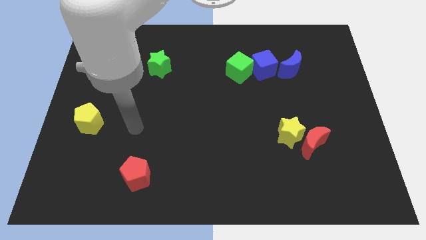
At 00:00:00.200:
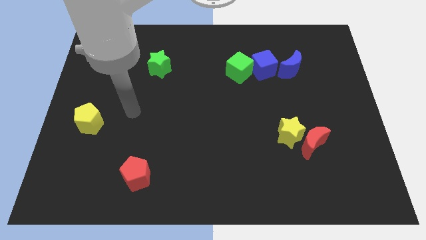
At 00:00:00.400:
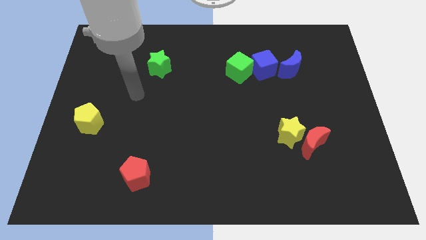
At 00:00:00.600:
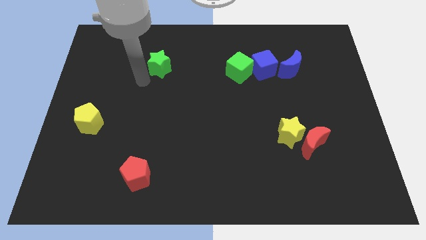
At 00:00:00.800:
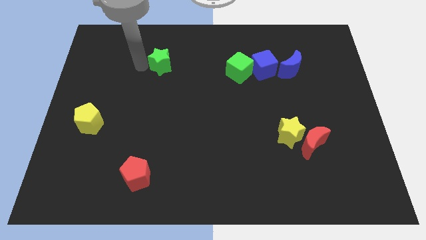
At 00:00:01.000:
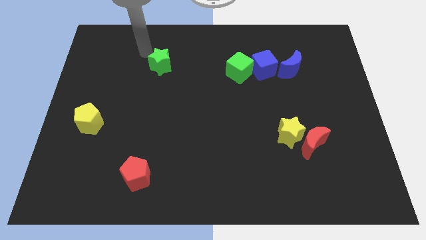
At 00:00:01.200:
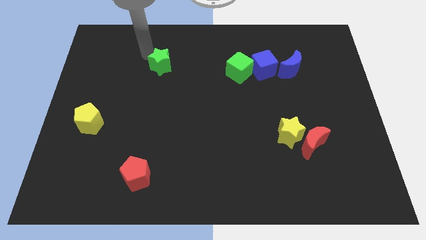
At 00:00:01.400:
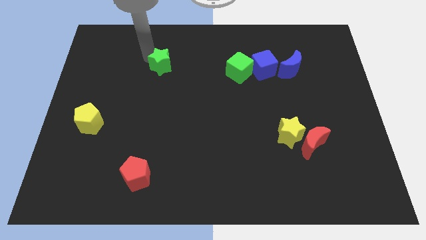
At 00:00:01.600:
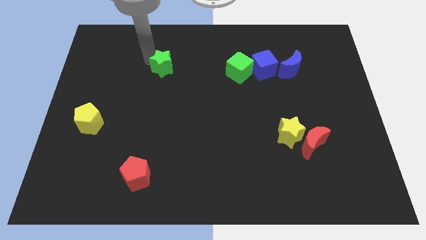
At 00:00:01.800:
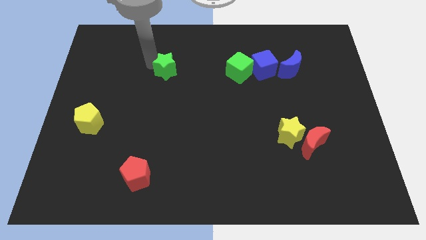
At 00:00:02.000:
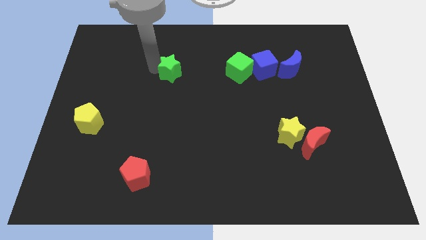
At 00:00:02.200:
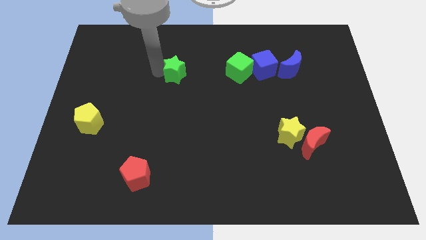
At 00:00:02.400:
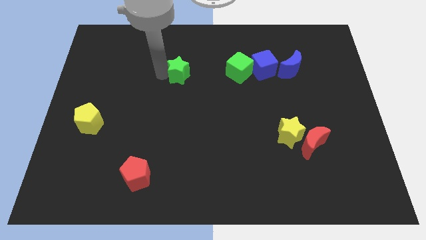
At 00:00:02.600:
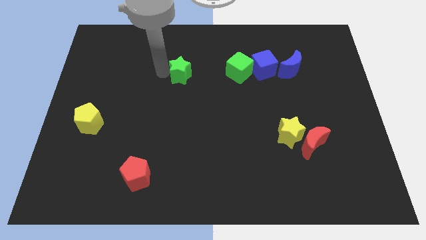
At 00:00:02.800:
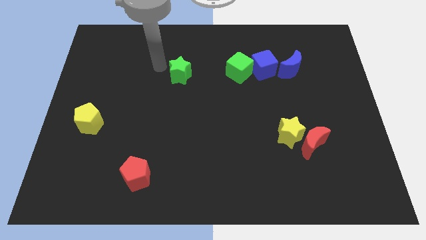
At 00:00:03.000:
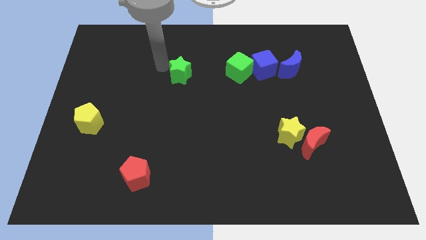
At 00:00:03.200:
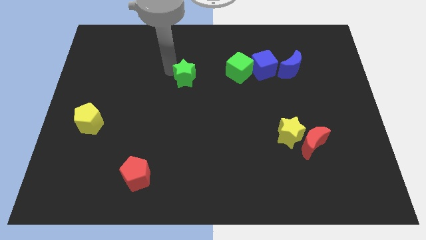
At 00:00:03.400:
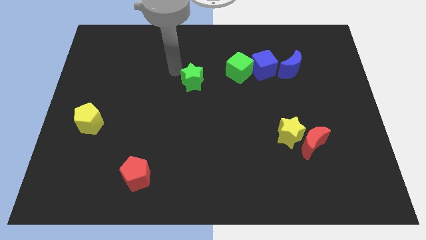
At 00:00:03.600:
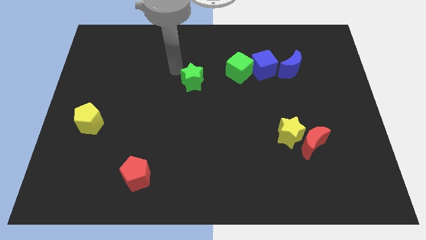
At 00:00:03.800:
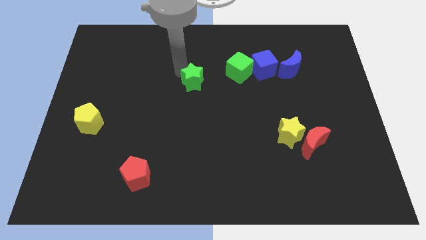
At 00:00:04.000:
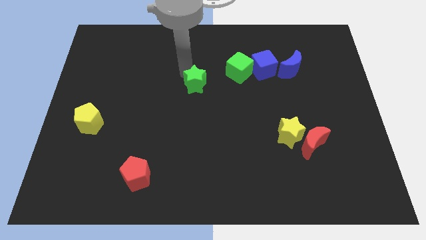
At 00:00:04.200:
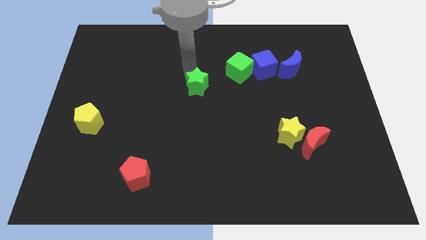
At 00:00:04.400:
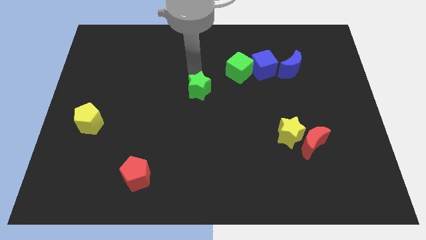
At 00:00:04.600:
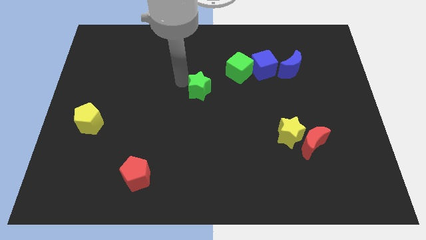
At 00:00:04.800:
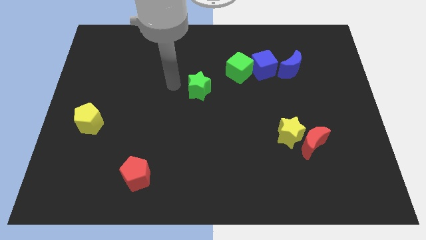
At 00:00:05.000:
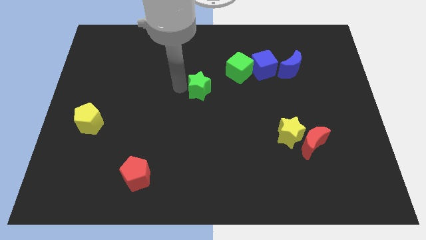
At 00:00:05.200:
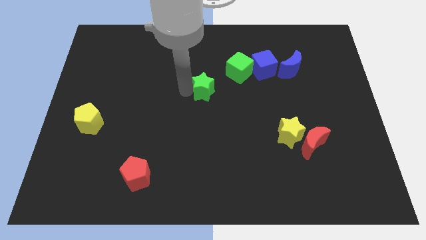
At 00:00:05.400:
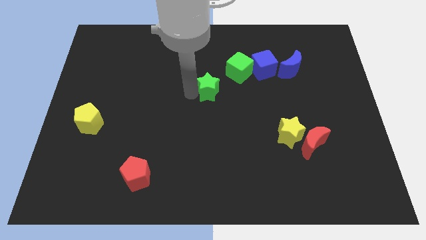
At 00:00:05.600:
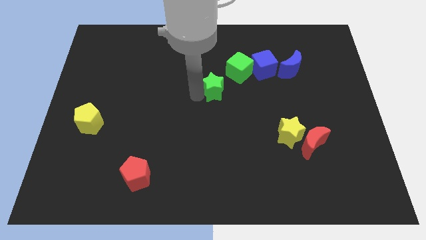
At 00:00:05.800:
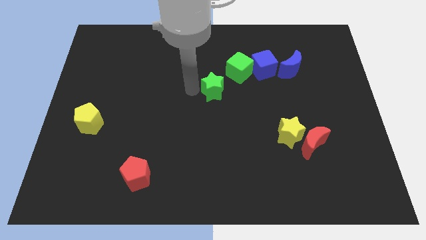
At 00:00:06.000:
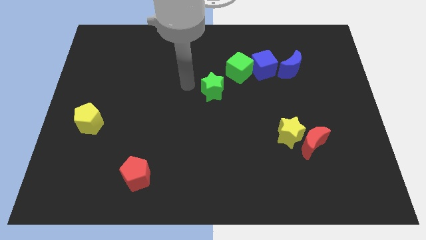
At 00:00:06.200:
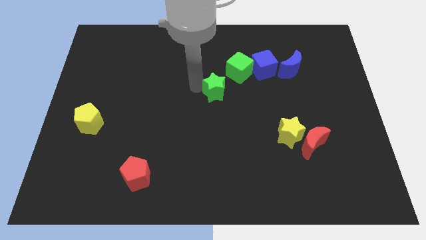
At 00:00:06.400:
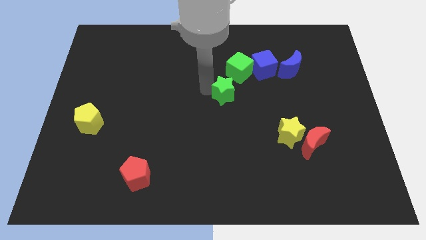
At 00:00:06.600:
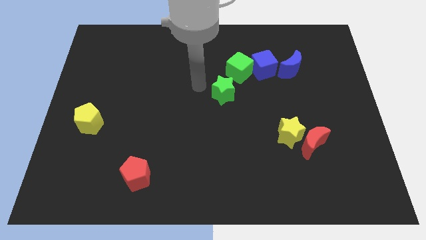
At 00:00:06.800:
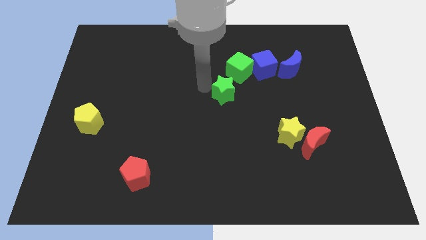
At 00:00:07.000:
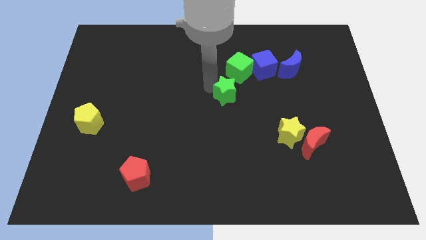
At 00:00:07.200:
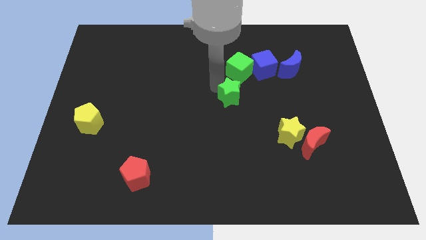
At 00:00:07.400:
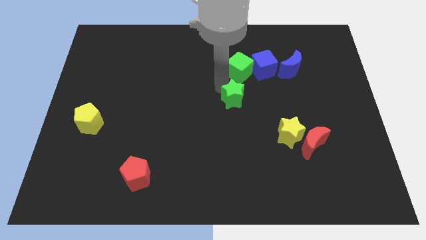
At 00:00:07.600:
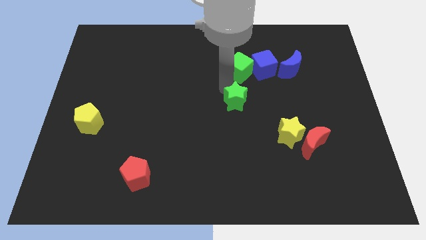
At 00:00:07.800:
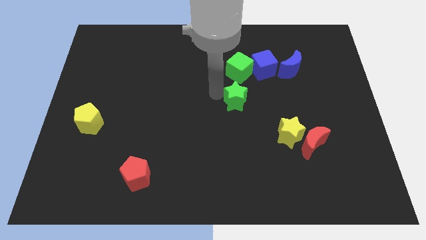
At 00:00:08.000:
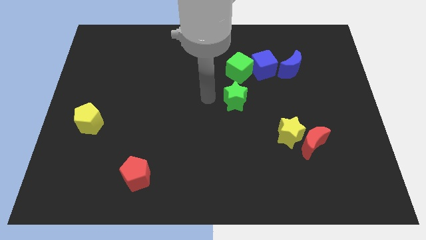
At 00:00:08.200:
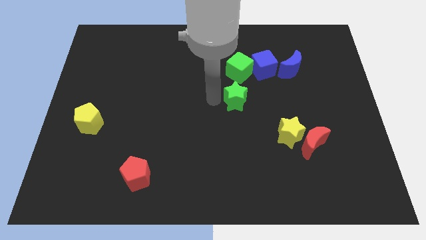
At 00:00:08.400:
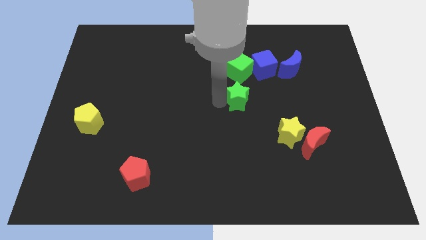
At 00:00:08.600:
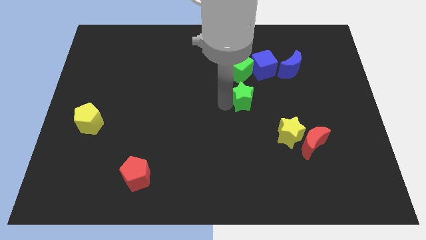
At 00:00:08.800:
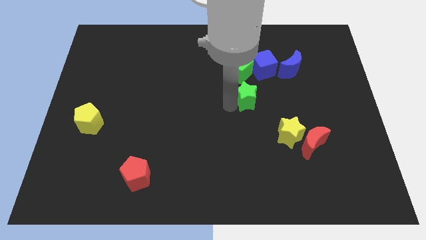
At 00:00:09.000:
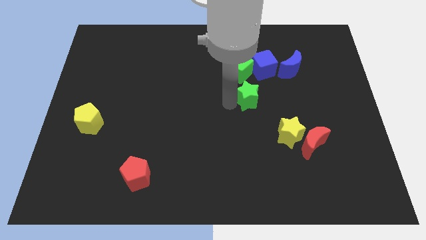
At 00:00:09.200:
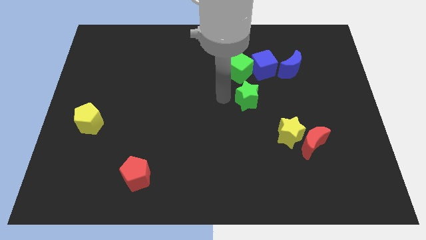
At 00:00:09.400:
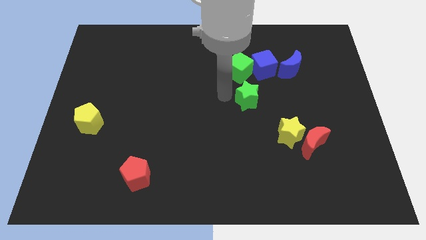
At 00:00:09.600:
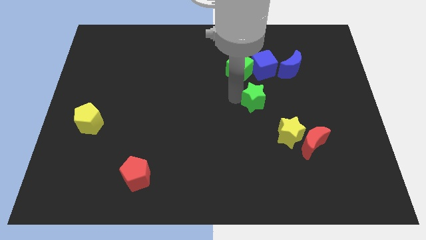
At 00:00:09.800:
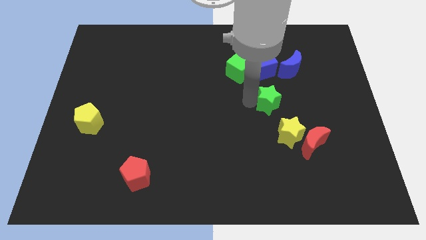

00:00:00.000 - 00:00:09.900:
slide the green star to the top of the yellow star

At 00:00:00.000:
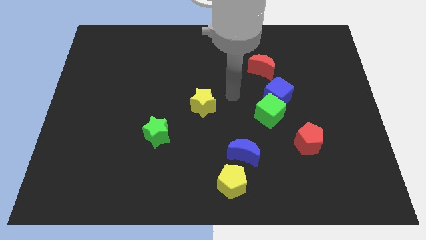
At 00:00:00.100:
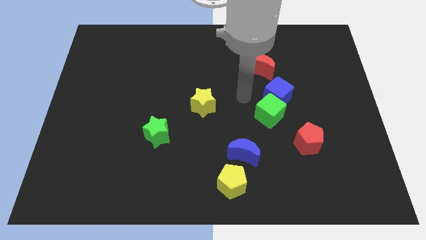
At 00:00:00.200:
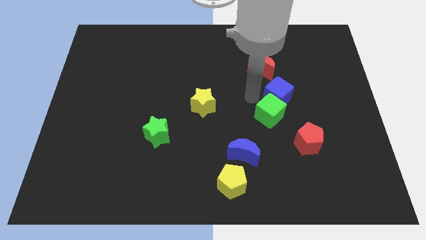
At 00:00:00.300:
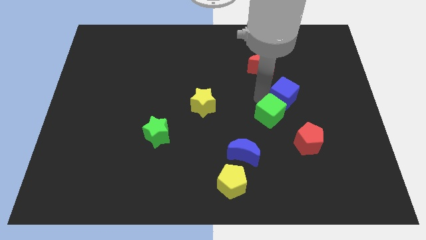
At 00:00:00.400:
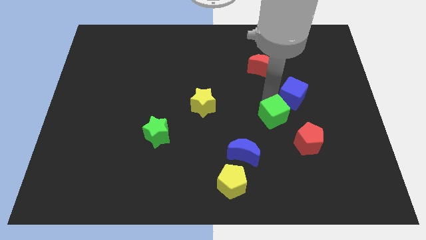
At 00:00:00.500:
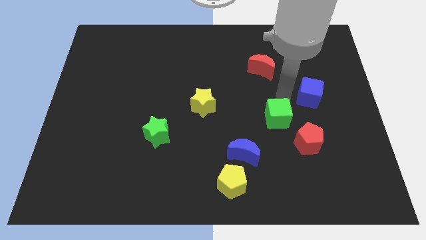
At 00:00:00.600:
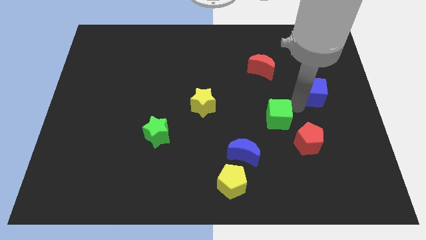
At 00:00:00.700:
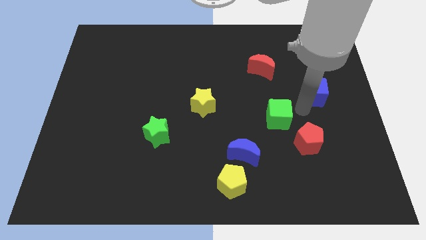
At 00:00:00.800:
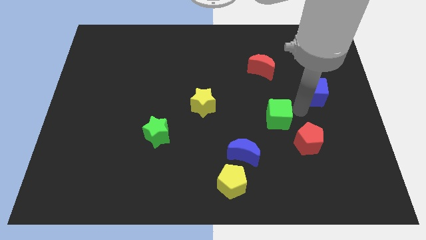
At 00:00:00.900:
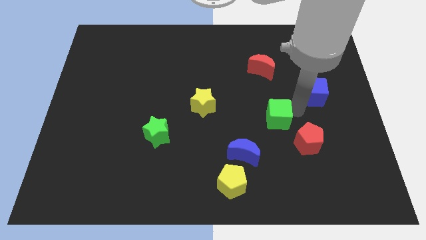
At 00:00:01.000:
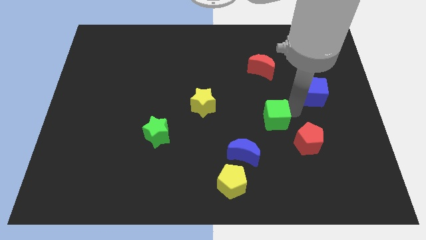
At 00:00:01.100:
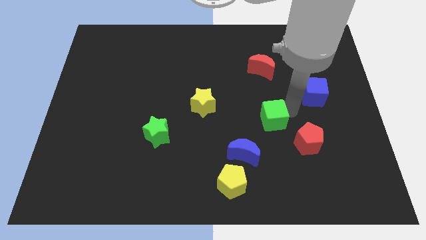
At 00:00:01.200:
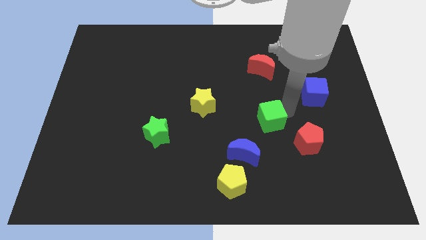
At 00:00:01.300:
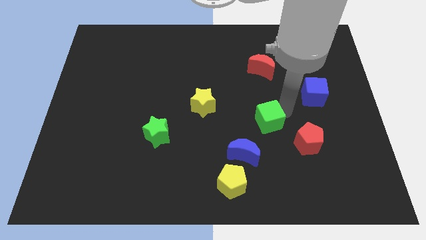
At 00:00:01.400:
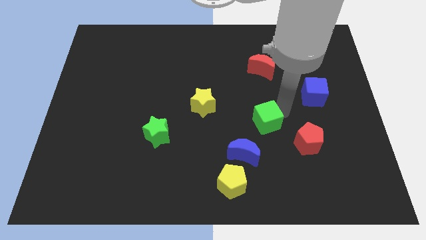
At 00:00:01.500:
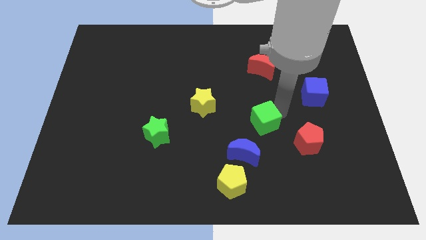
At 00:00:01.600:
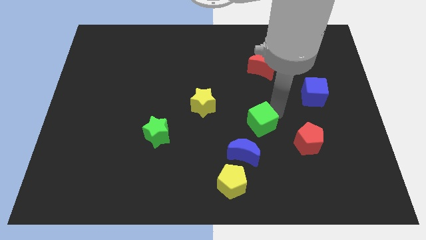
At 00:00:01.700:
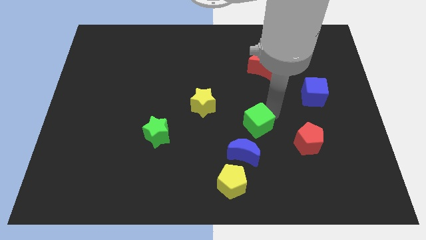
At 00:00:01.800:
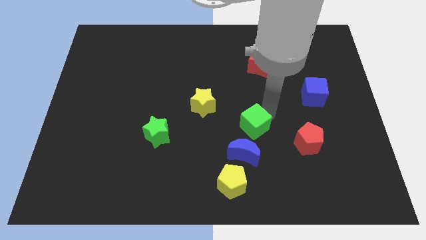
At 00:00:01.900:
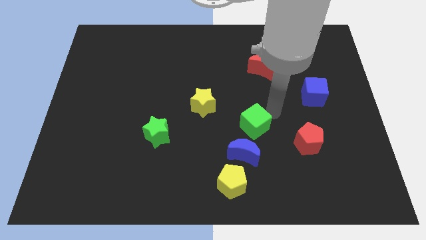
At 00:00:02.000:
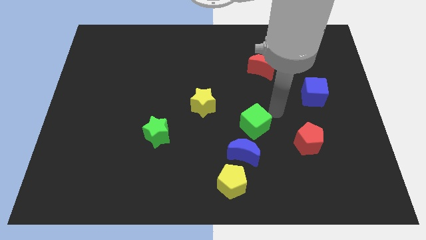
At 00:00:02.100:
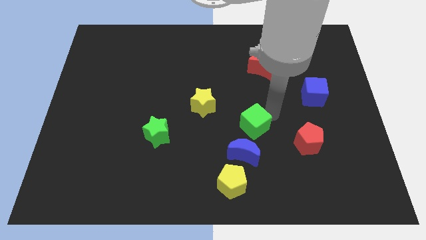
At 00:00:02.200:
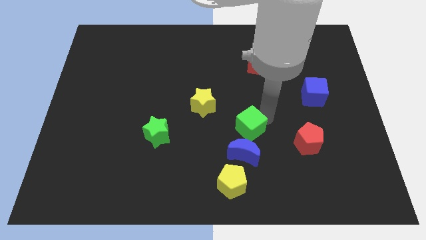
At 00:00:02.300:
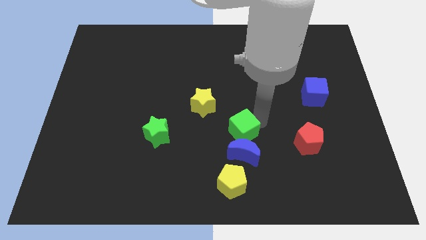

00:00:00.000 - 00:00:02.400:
slide the green cube to the top side of the yellow pentagon
